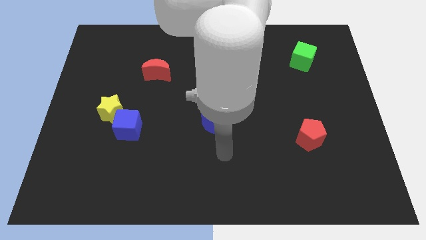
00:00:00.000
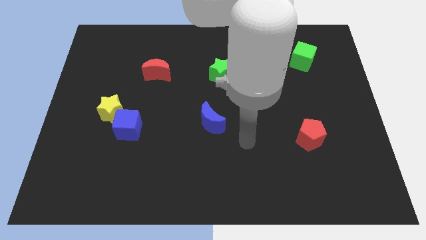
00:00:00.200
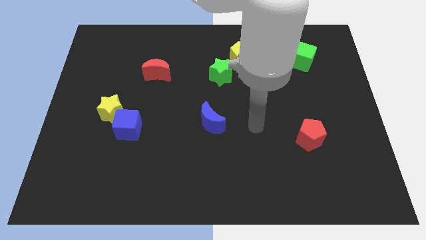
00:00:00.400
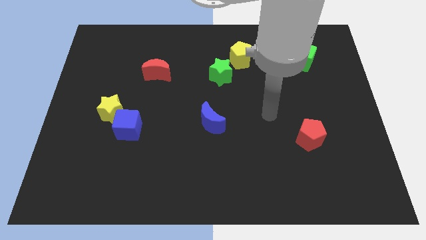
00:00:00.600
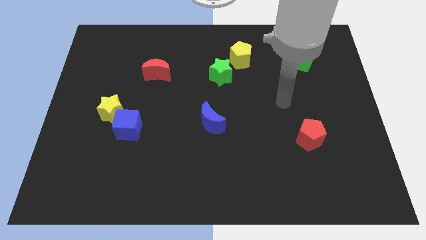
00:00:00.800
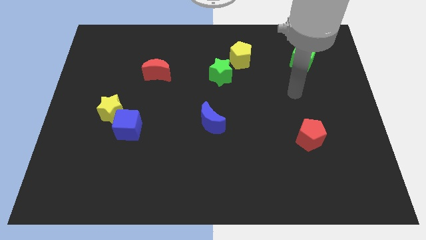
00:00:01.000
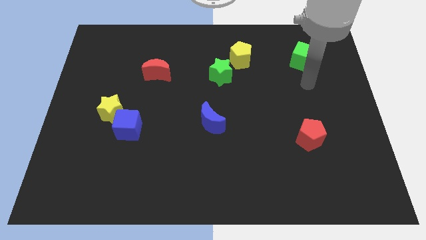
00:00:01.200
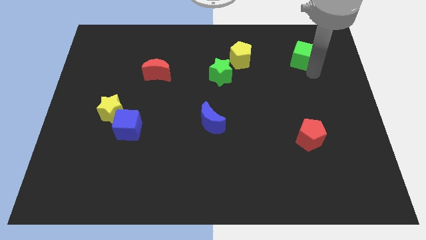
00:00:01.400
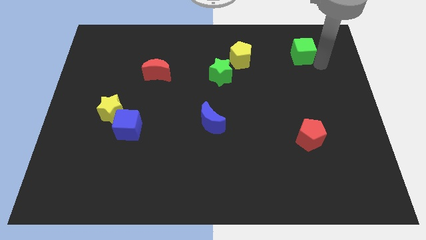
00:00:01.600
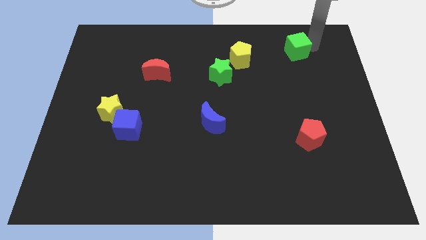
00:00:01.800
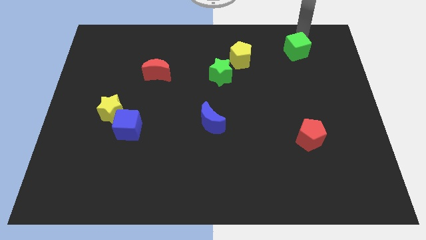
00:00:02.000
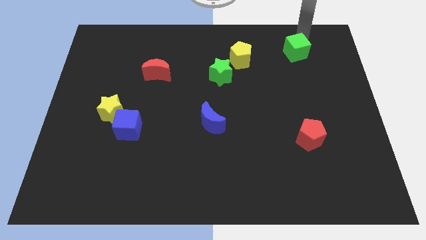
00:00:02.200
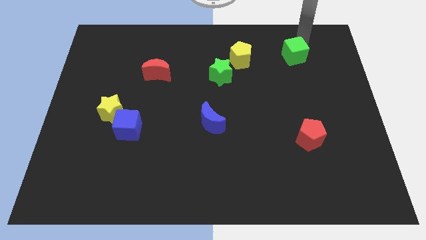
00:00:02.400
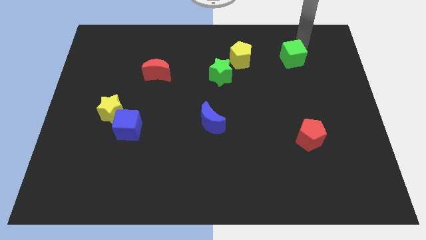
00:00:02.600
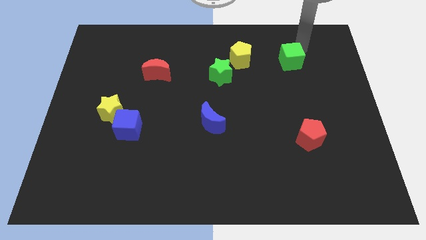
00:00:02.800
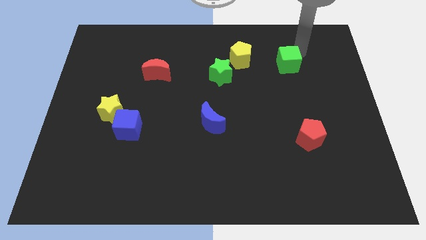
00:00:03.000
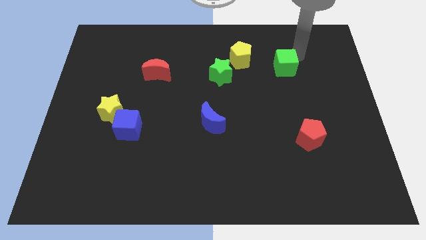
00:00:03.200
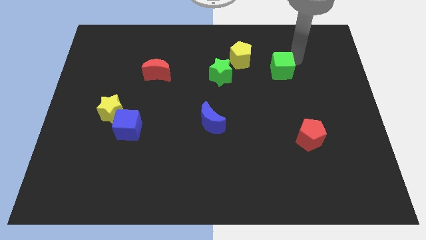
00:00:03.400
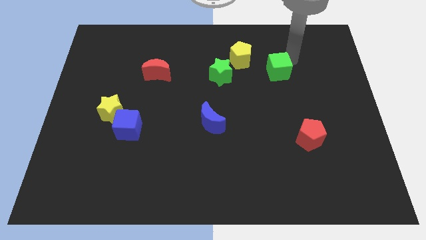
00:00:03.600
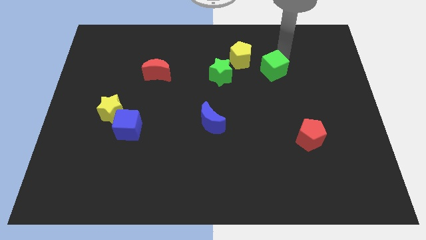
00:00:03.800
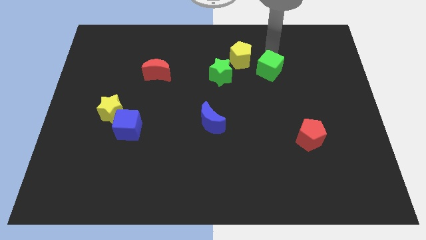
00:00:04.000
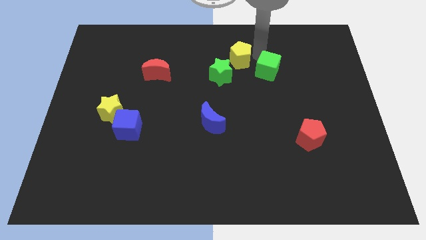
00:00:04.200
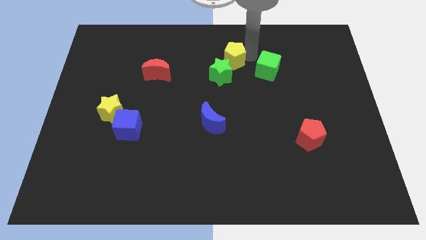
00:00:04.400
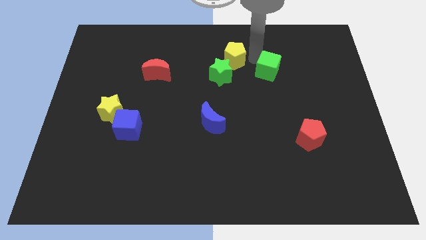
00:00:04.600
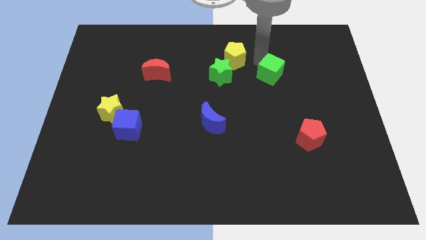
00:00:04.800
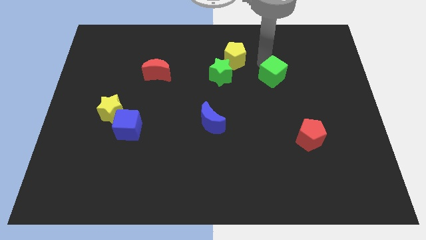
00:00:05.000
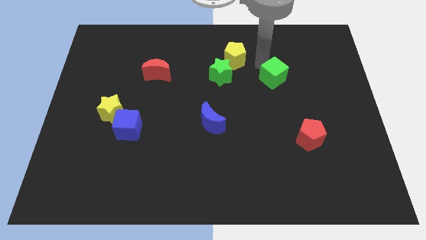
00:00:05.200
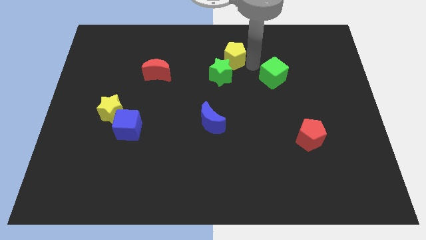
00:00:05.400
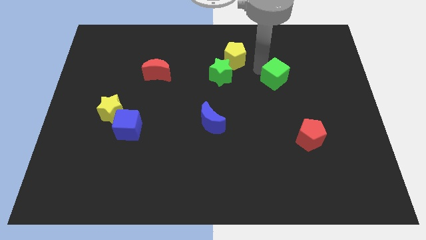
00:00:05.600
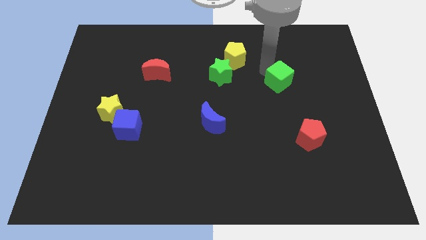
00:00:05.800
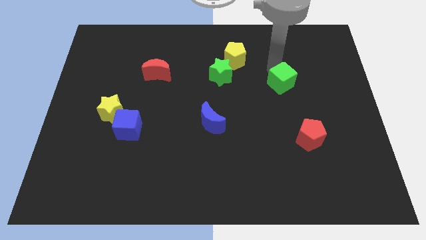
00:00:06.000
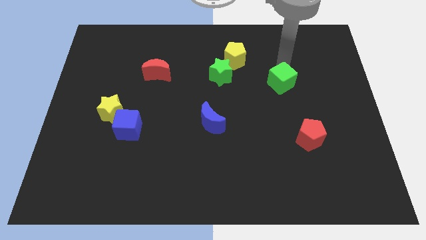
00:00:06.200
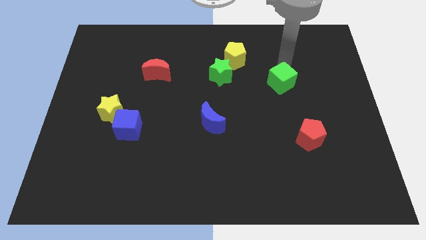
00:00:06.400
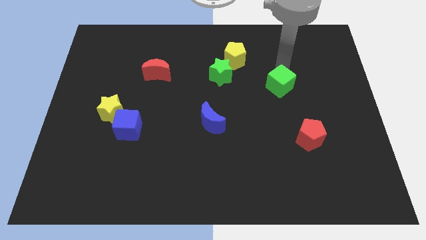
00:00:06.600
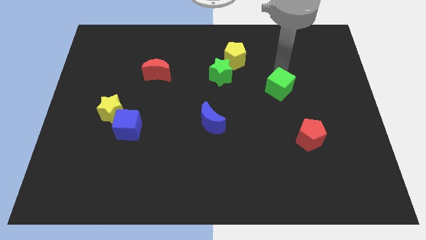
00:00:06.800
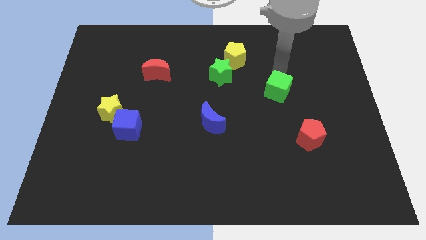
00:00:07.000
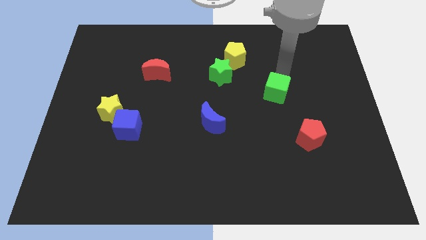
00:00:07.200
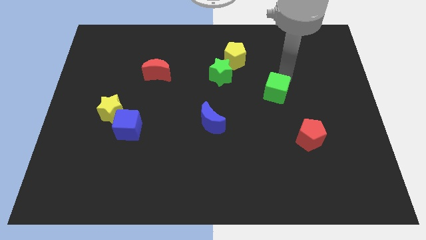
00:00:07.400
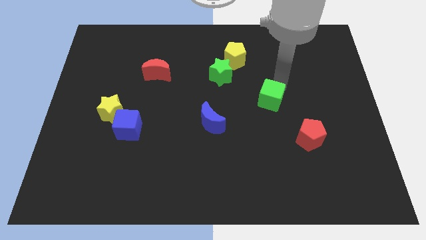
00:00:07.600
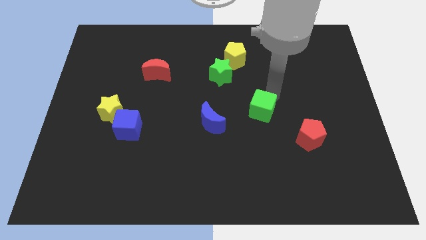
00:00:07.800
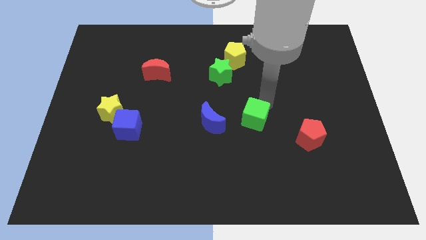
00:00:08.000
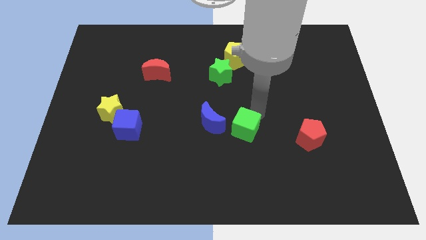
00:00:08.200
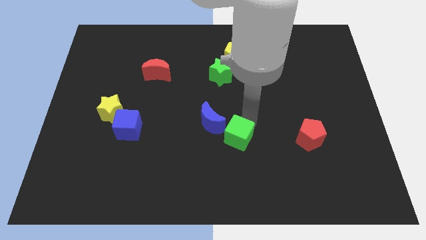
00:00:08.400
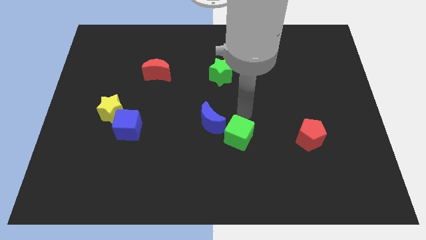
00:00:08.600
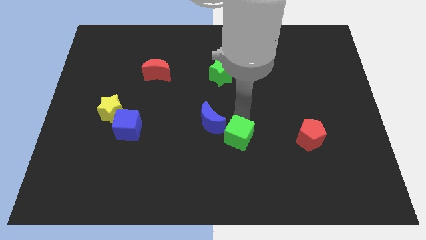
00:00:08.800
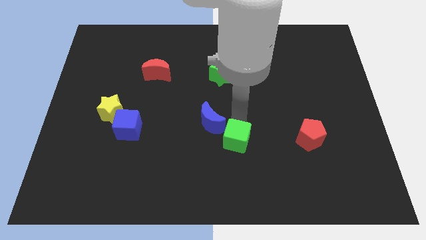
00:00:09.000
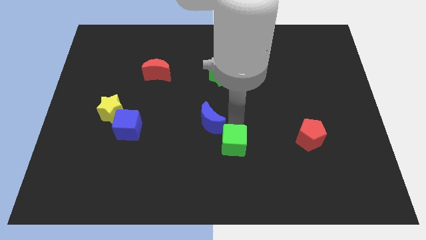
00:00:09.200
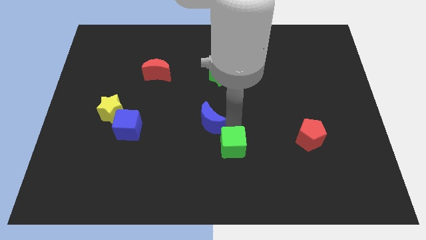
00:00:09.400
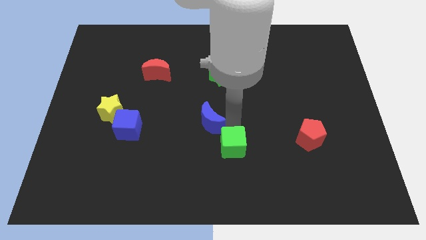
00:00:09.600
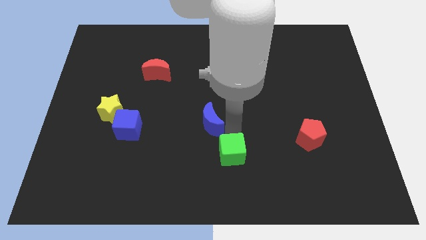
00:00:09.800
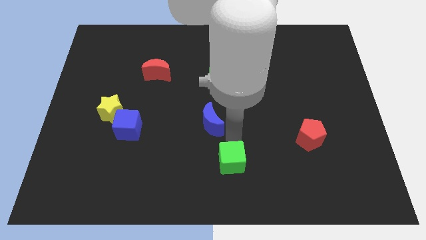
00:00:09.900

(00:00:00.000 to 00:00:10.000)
slide the green cube to the bottom side

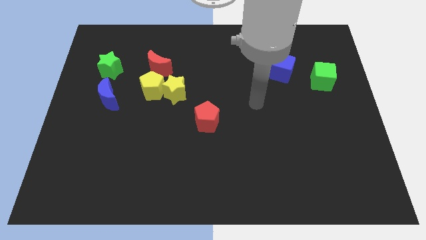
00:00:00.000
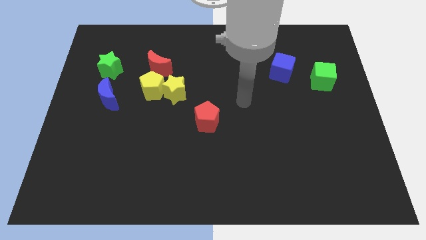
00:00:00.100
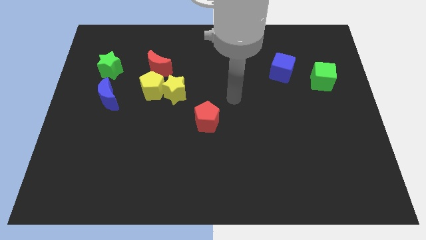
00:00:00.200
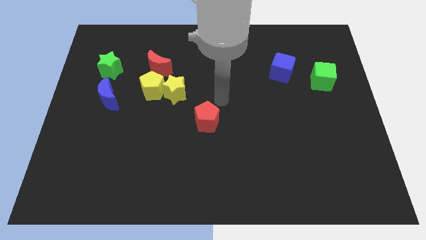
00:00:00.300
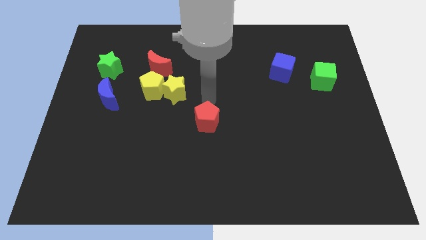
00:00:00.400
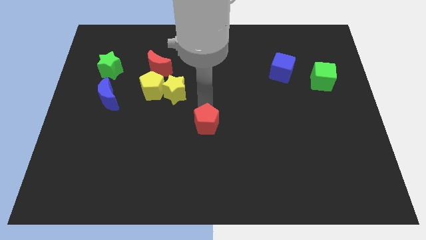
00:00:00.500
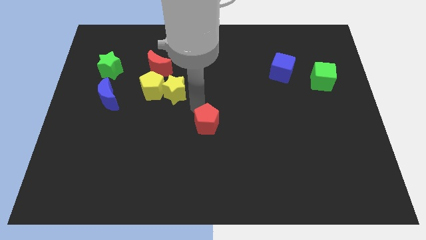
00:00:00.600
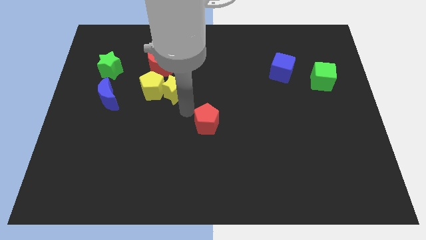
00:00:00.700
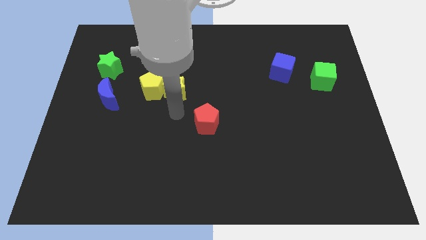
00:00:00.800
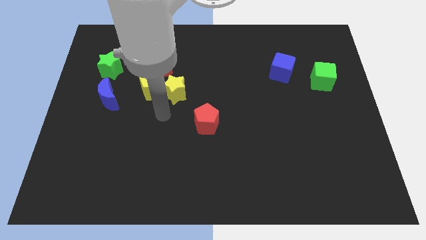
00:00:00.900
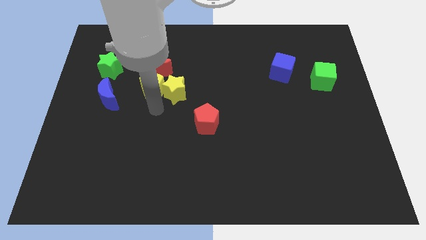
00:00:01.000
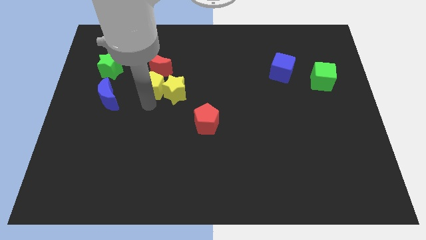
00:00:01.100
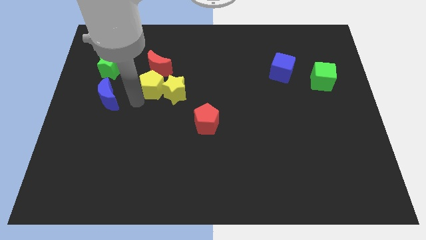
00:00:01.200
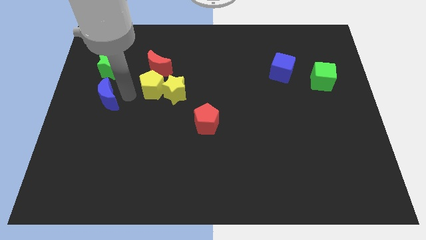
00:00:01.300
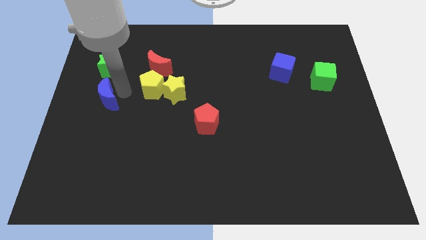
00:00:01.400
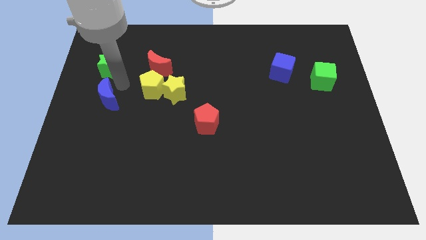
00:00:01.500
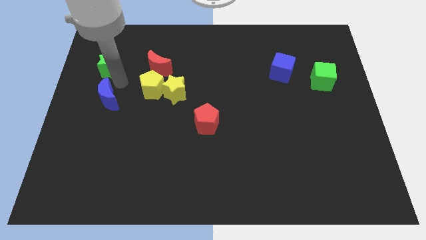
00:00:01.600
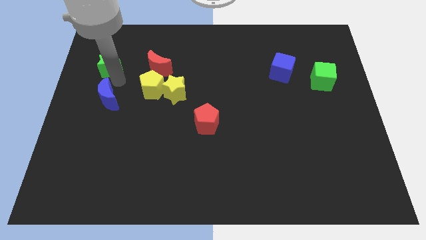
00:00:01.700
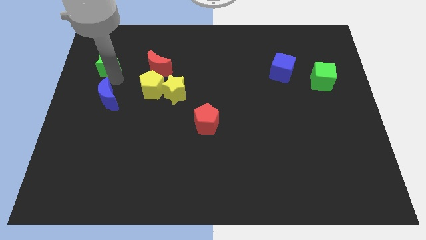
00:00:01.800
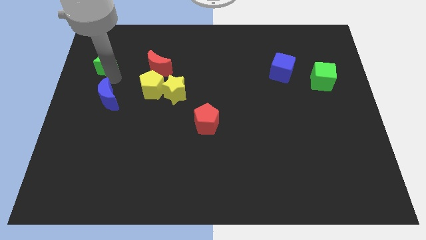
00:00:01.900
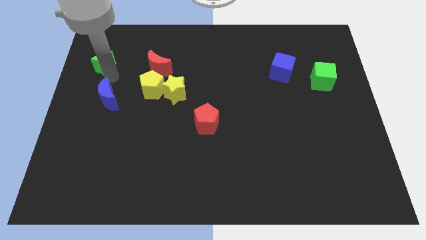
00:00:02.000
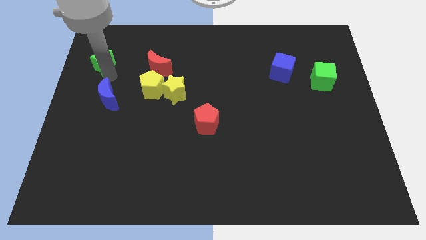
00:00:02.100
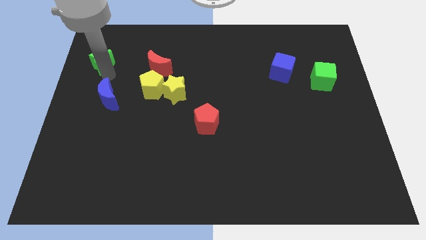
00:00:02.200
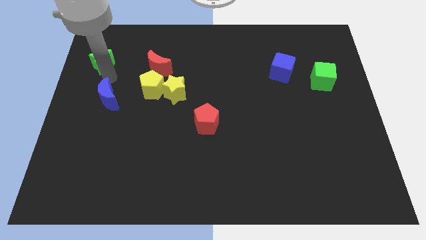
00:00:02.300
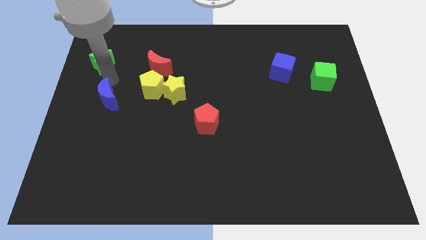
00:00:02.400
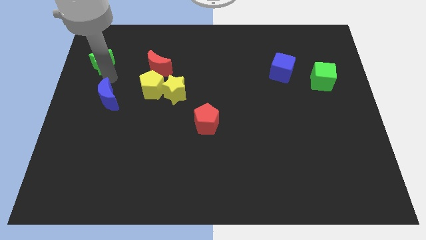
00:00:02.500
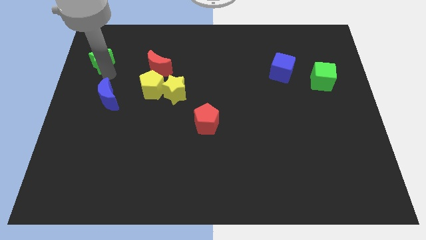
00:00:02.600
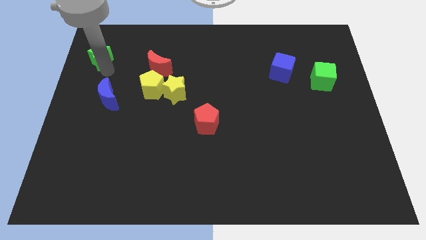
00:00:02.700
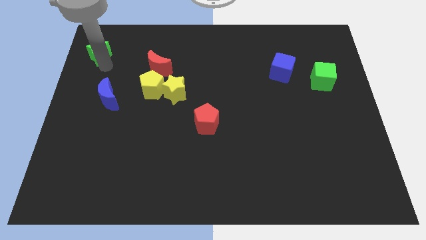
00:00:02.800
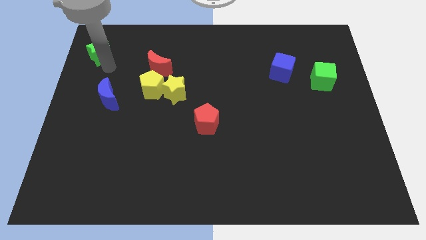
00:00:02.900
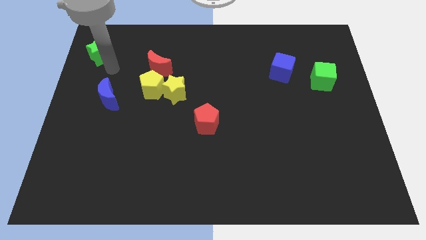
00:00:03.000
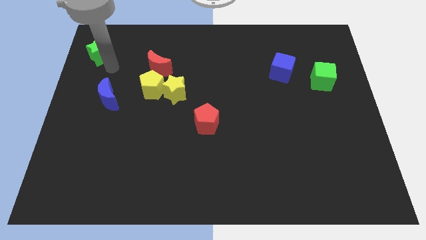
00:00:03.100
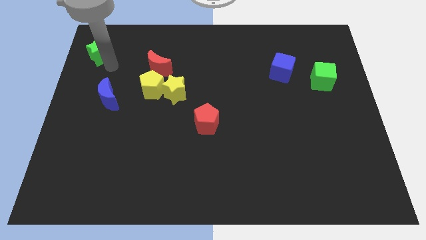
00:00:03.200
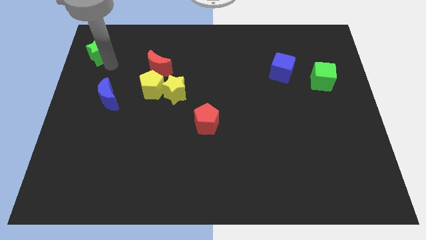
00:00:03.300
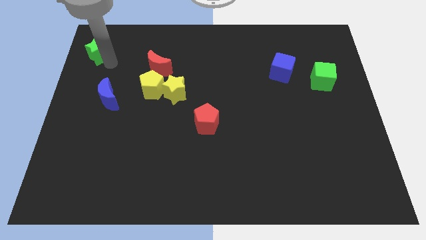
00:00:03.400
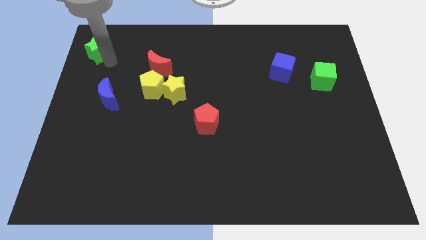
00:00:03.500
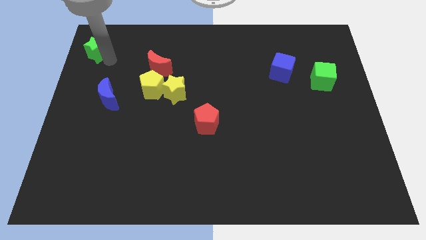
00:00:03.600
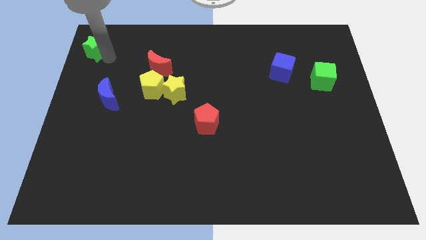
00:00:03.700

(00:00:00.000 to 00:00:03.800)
put the green star to the top left of the board
